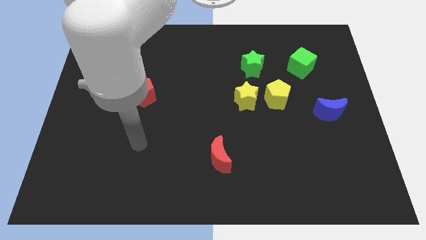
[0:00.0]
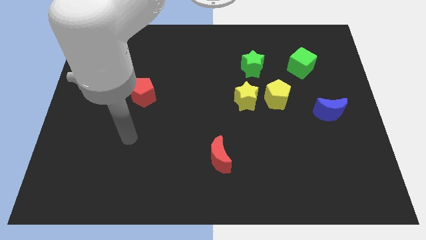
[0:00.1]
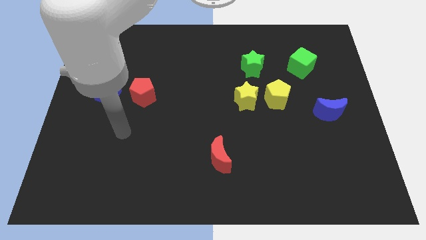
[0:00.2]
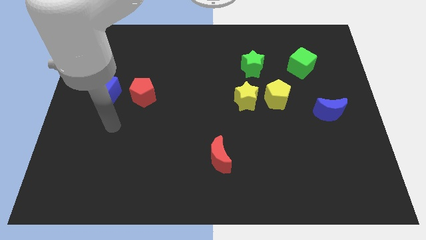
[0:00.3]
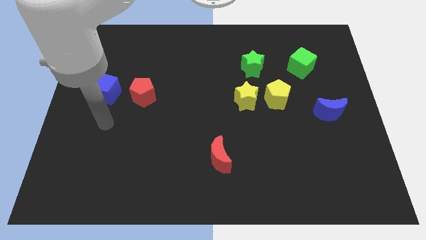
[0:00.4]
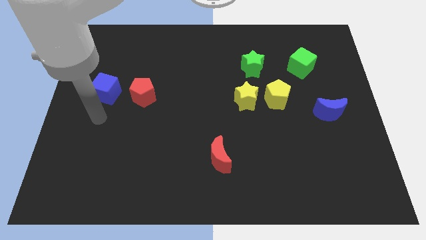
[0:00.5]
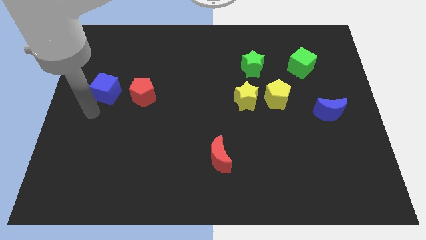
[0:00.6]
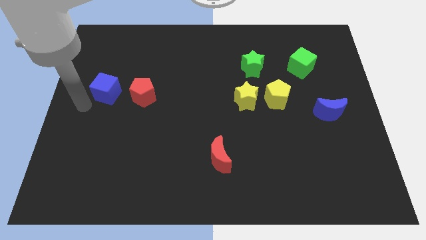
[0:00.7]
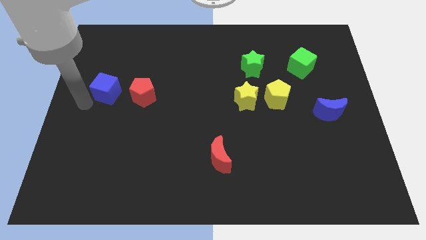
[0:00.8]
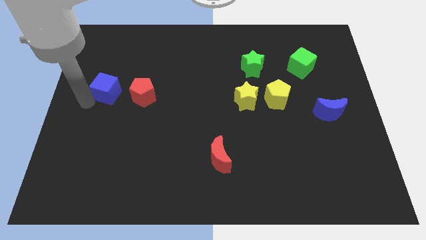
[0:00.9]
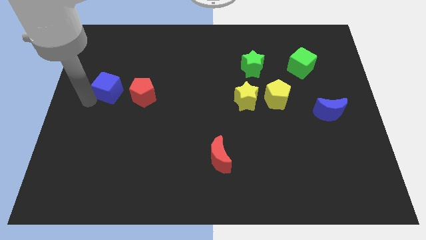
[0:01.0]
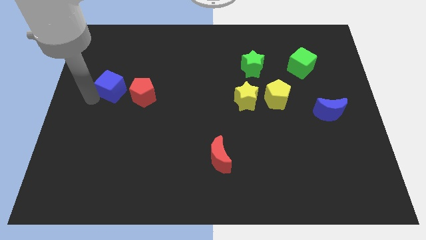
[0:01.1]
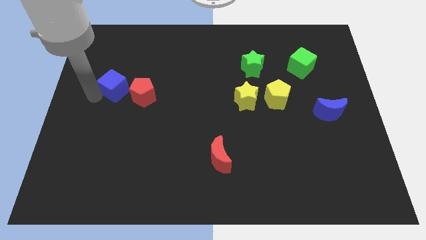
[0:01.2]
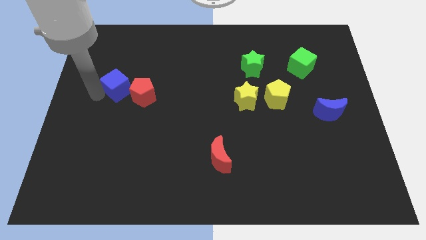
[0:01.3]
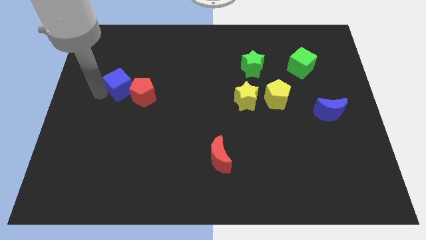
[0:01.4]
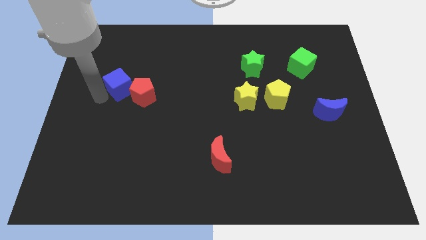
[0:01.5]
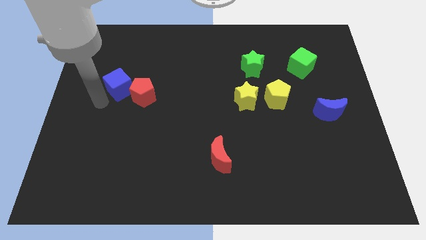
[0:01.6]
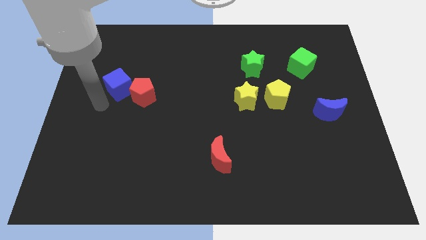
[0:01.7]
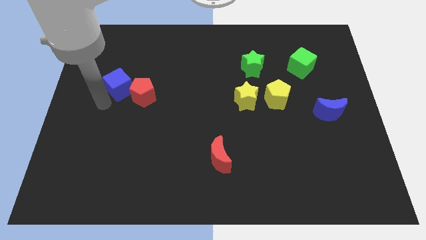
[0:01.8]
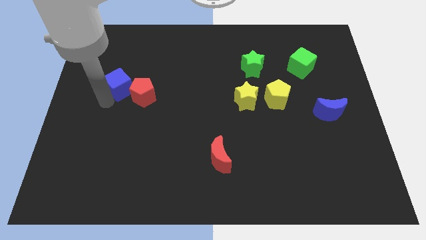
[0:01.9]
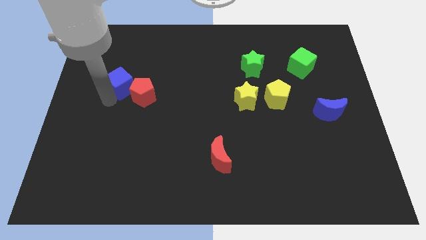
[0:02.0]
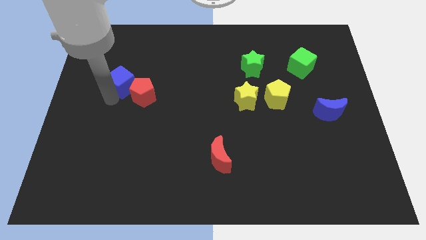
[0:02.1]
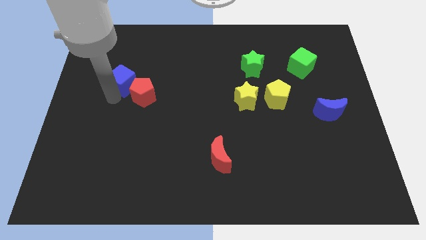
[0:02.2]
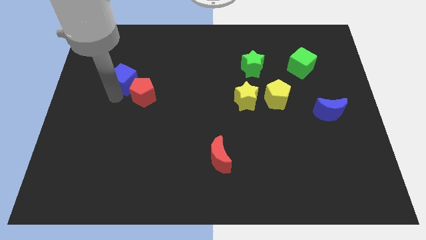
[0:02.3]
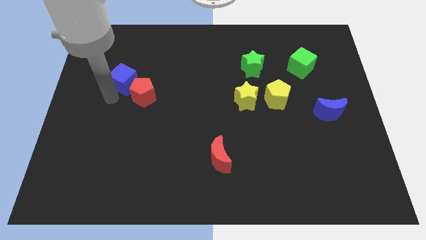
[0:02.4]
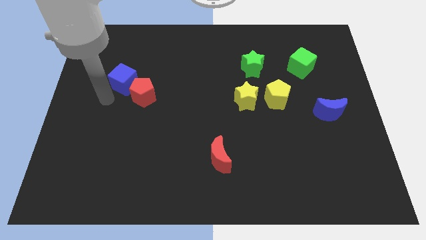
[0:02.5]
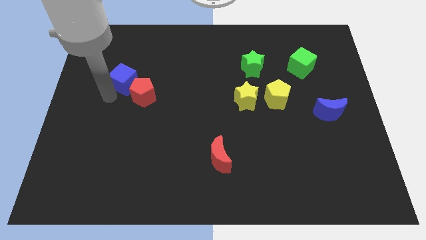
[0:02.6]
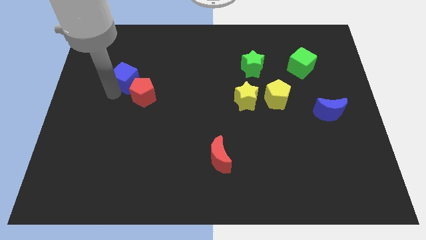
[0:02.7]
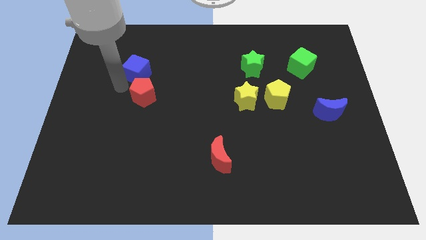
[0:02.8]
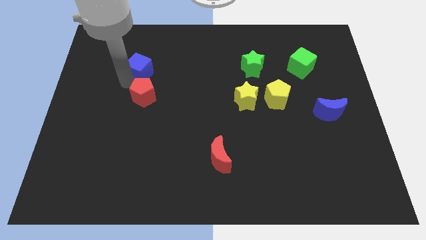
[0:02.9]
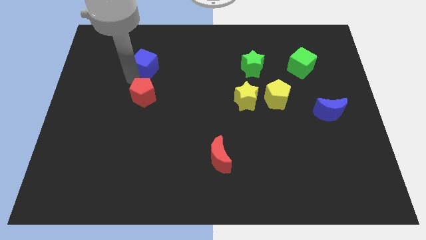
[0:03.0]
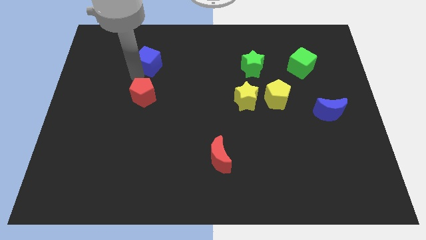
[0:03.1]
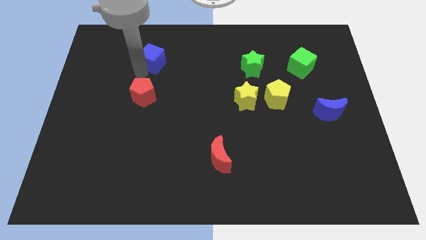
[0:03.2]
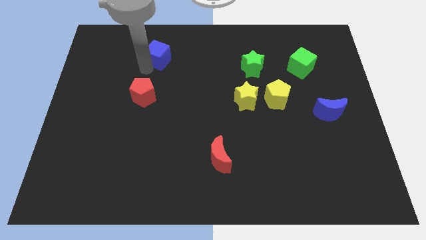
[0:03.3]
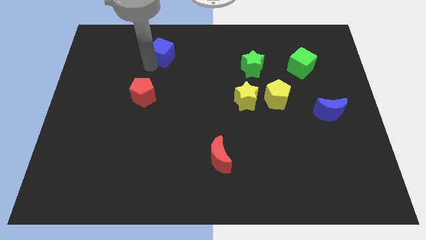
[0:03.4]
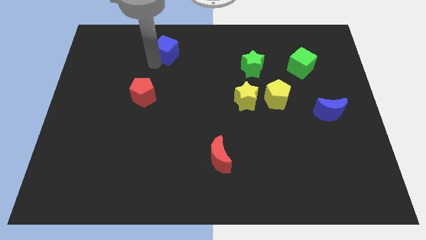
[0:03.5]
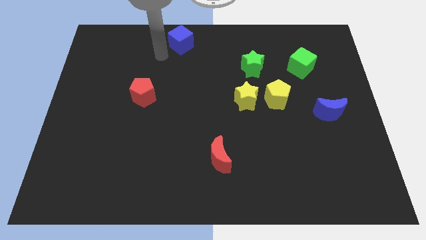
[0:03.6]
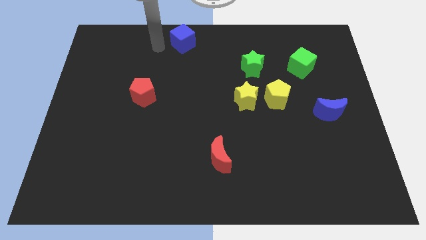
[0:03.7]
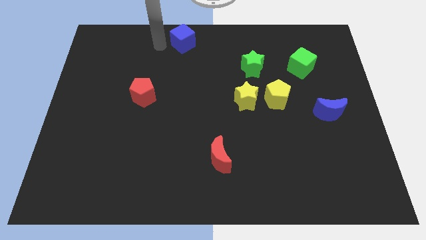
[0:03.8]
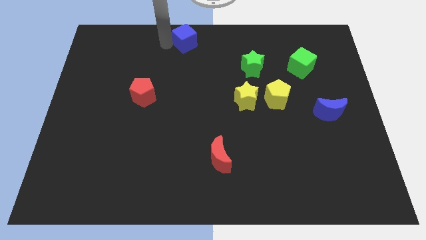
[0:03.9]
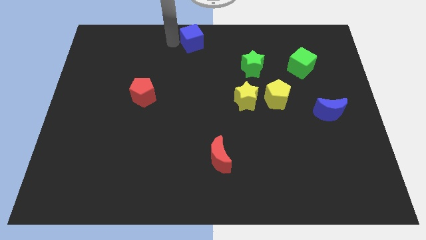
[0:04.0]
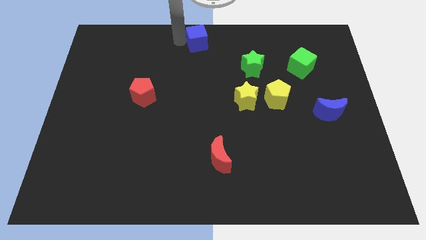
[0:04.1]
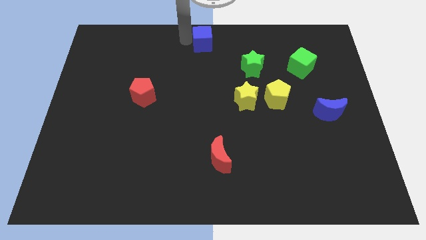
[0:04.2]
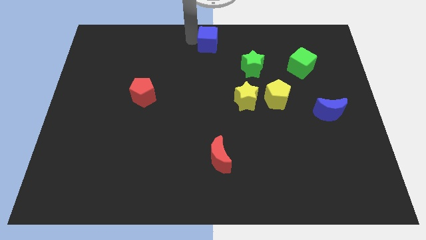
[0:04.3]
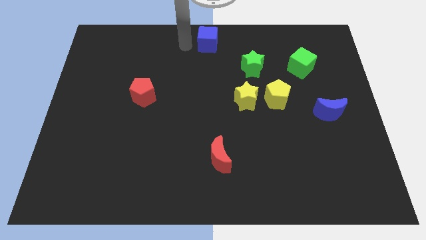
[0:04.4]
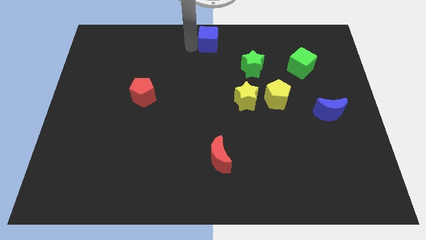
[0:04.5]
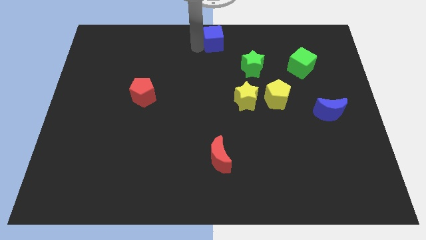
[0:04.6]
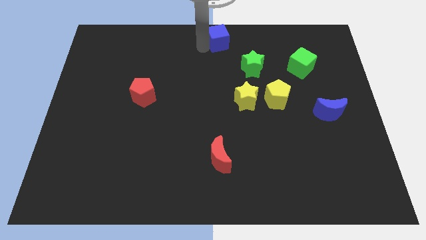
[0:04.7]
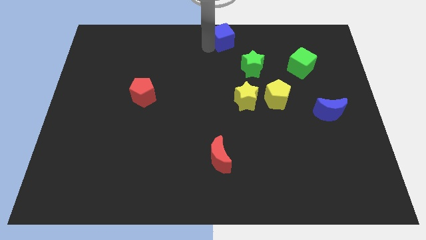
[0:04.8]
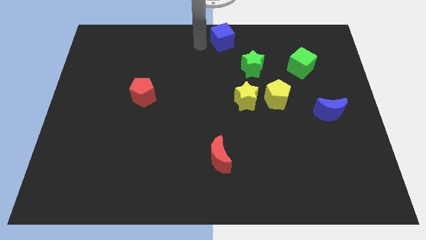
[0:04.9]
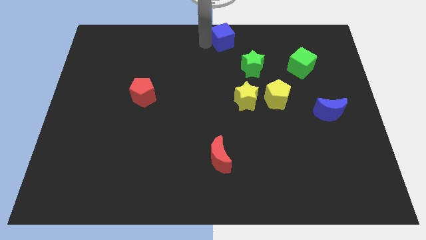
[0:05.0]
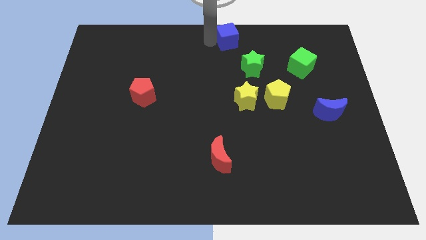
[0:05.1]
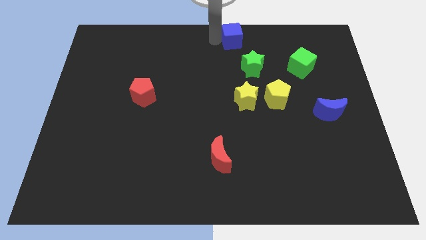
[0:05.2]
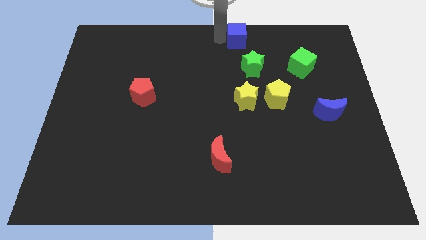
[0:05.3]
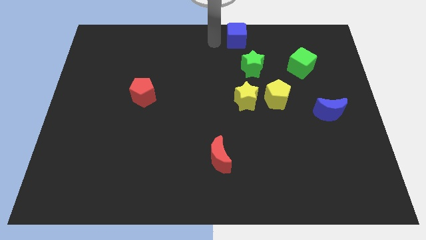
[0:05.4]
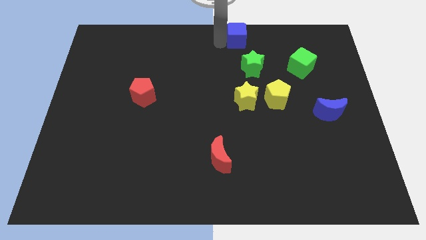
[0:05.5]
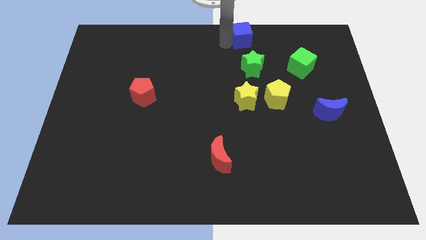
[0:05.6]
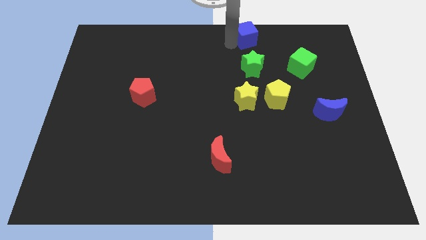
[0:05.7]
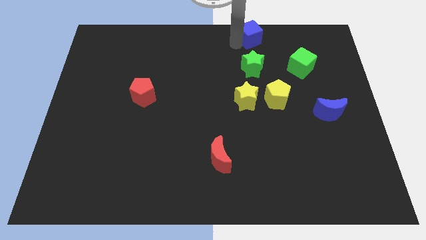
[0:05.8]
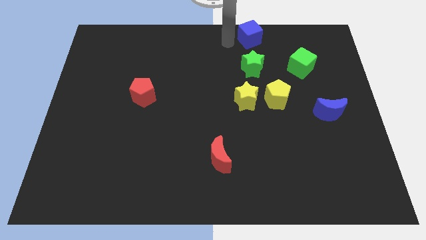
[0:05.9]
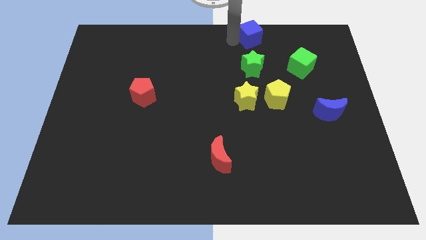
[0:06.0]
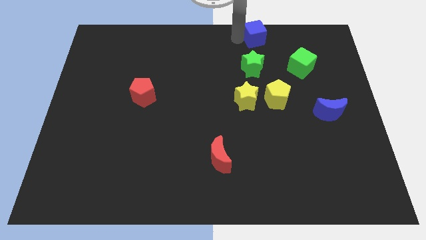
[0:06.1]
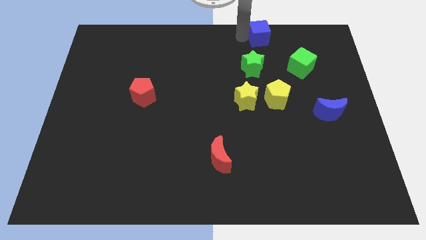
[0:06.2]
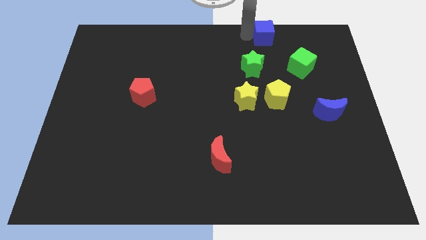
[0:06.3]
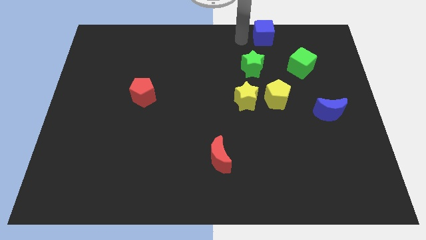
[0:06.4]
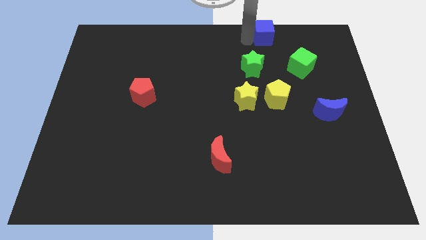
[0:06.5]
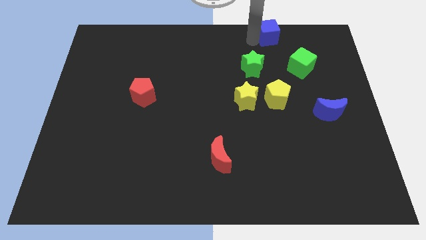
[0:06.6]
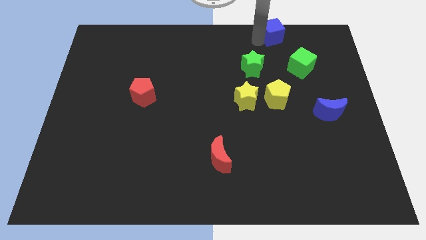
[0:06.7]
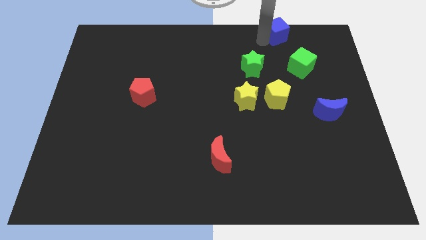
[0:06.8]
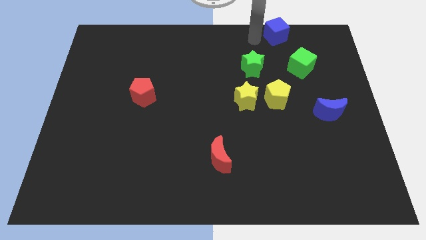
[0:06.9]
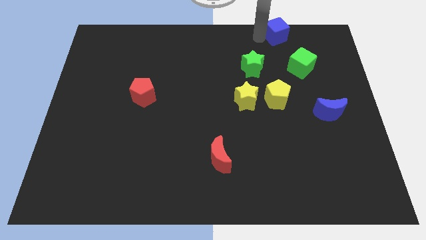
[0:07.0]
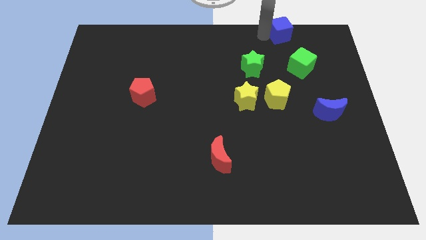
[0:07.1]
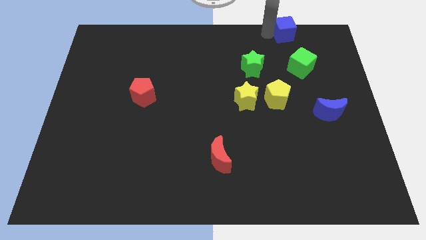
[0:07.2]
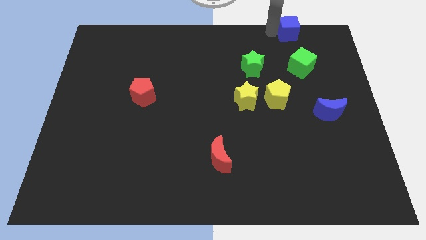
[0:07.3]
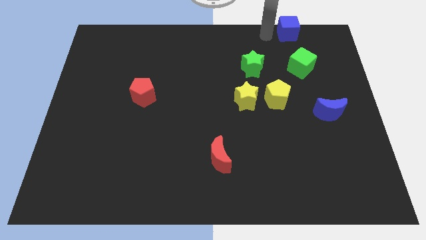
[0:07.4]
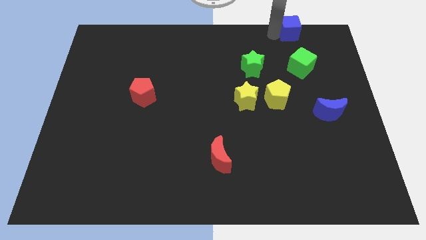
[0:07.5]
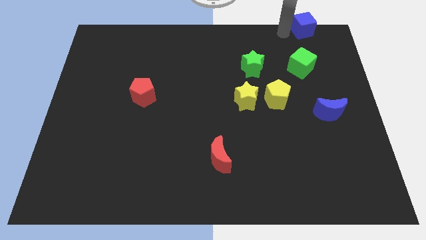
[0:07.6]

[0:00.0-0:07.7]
move the blue cube to the top right corner

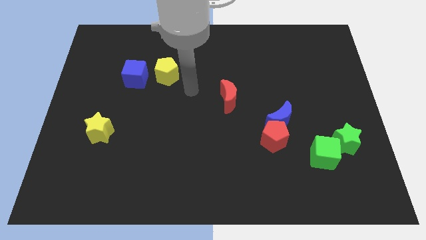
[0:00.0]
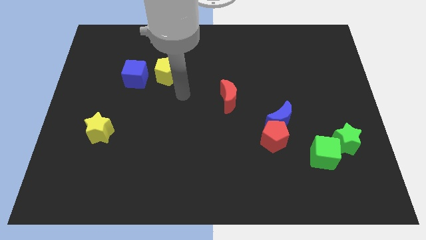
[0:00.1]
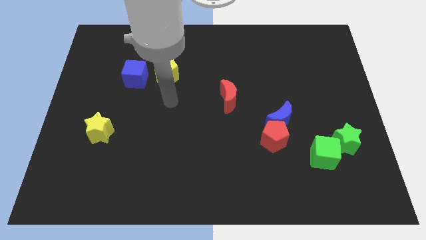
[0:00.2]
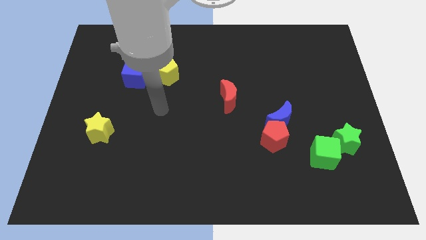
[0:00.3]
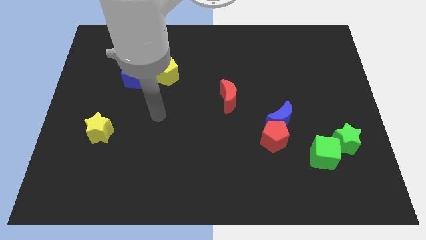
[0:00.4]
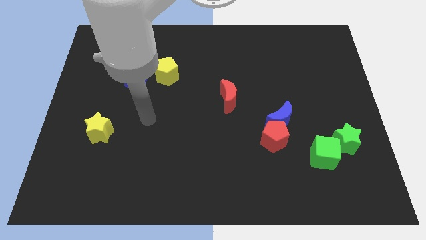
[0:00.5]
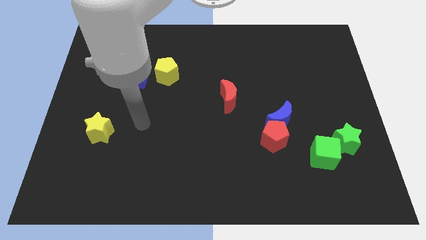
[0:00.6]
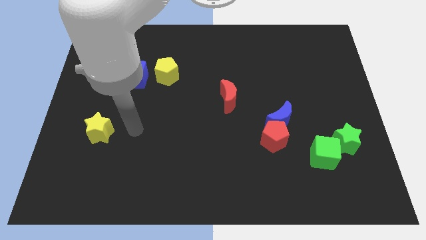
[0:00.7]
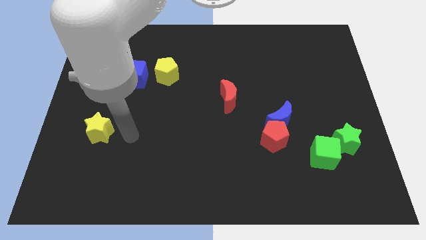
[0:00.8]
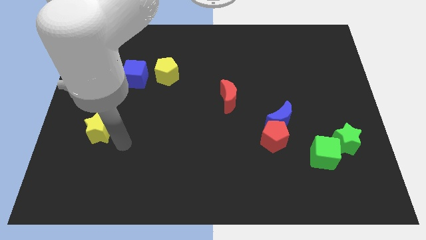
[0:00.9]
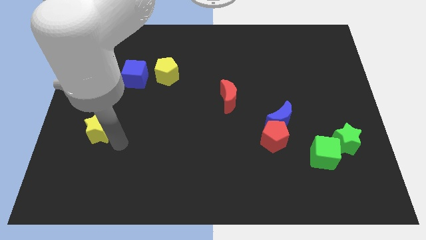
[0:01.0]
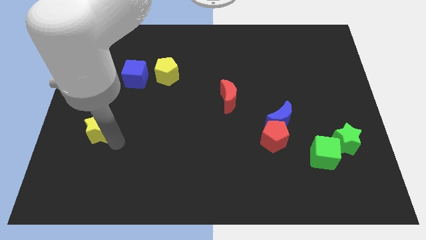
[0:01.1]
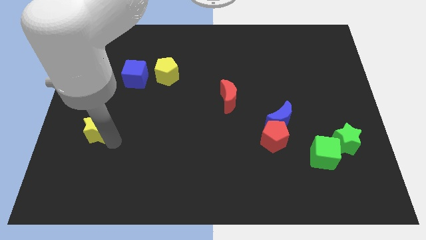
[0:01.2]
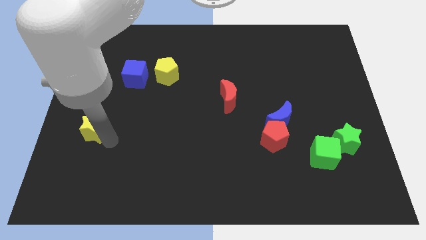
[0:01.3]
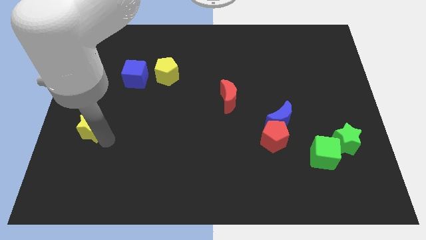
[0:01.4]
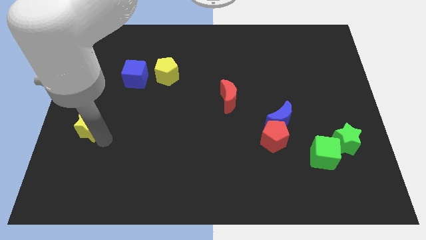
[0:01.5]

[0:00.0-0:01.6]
slide the yellow star to the left side of the board
